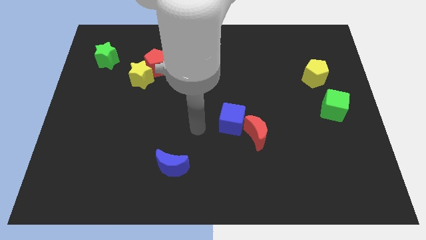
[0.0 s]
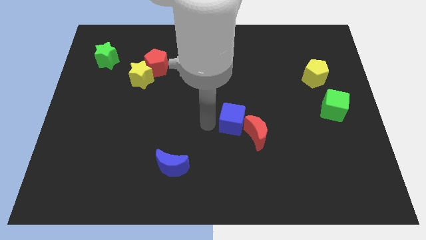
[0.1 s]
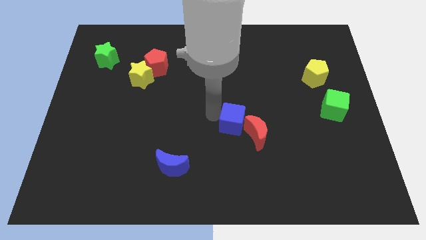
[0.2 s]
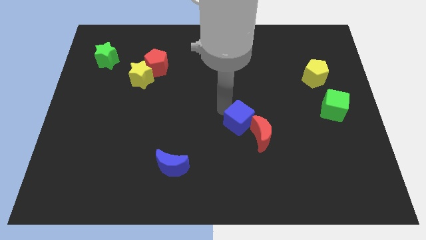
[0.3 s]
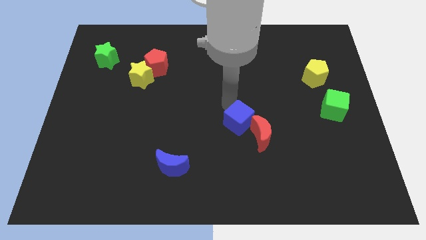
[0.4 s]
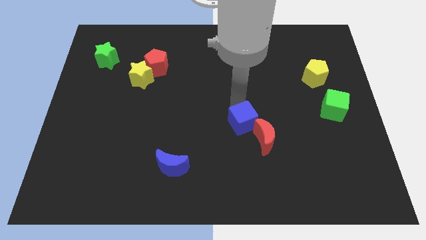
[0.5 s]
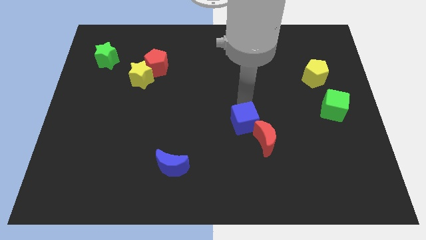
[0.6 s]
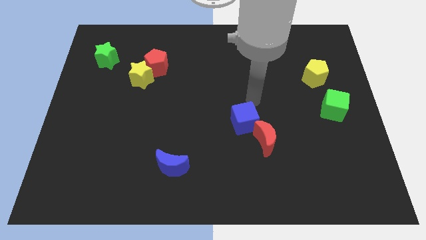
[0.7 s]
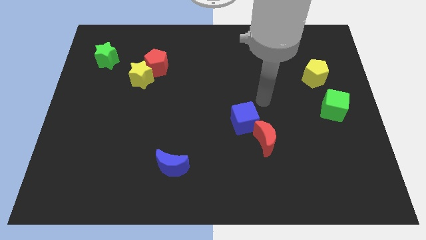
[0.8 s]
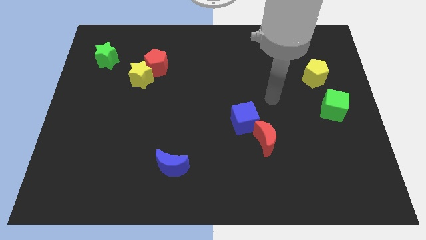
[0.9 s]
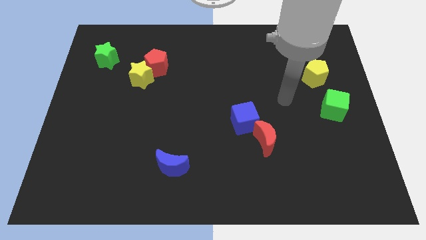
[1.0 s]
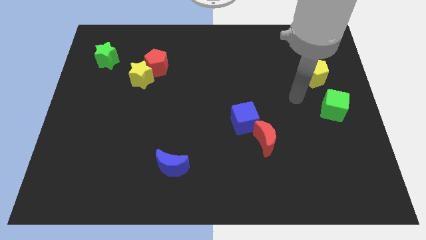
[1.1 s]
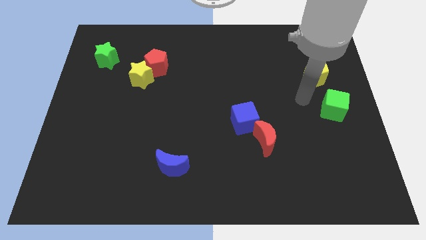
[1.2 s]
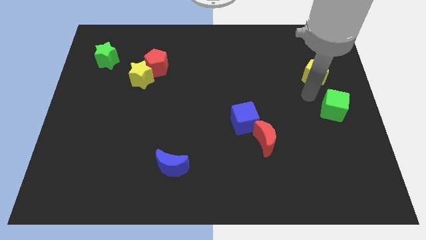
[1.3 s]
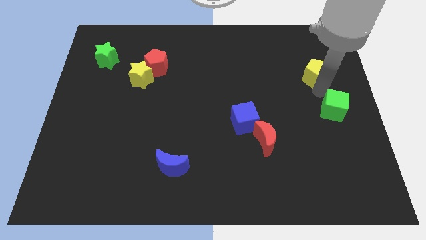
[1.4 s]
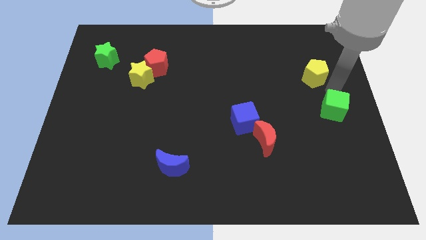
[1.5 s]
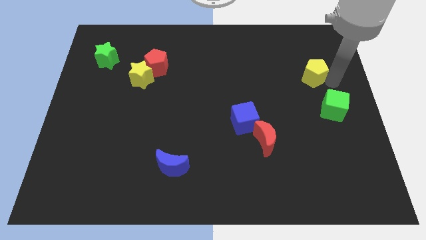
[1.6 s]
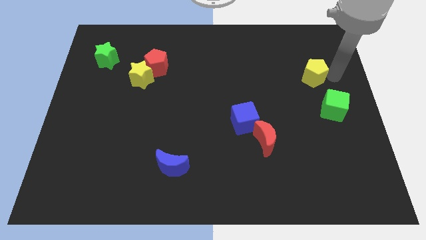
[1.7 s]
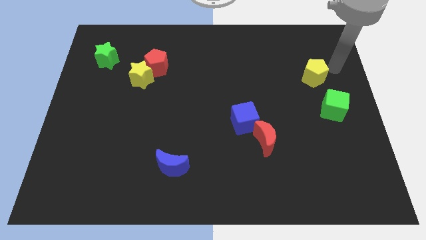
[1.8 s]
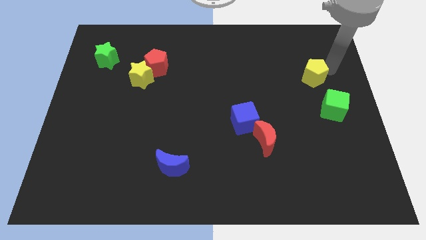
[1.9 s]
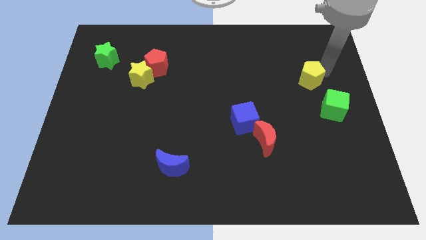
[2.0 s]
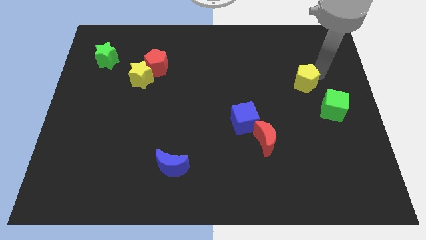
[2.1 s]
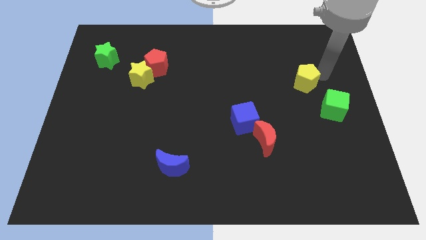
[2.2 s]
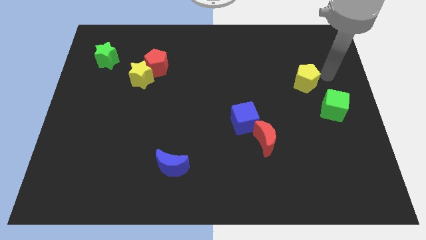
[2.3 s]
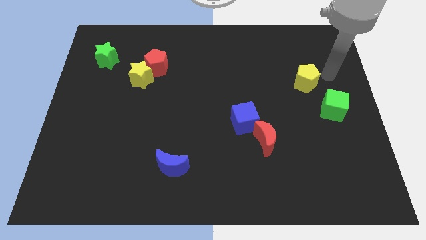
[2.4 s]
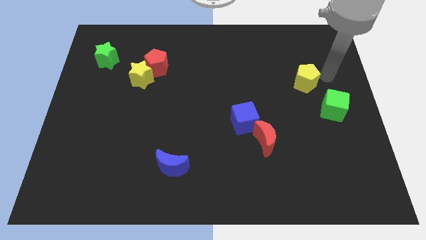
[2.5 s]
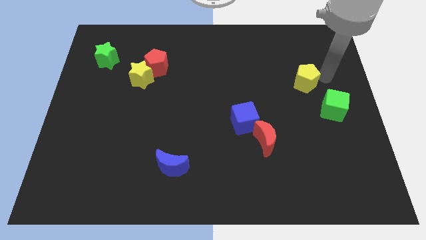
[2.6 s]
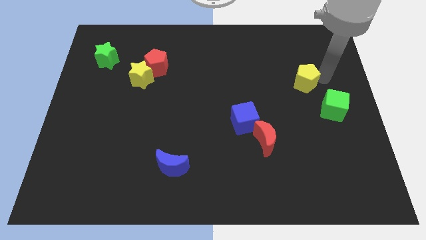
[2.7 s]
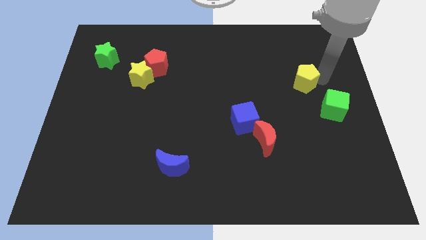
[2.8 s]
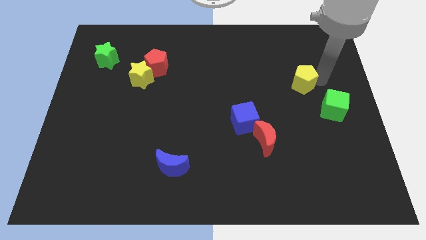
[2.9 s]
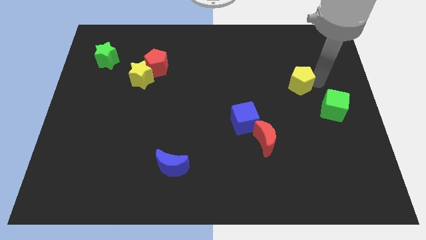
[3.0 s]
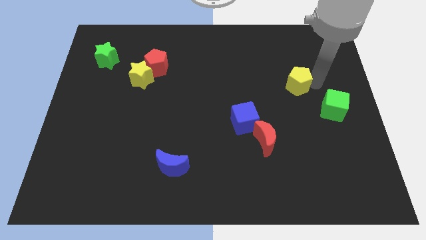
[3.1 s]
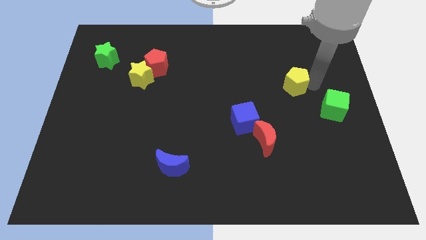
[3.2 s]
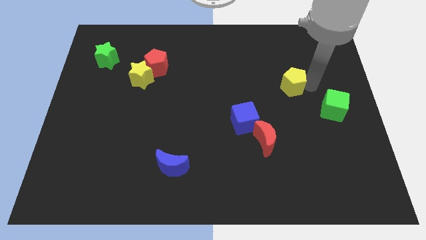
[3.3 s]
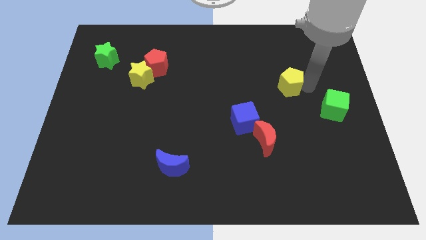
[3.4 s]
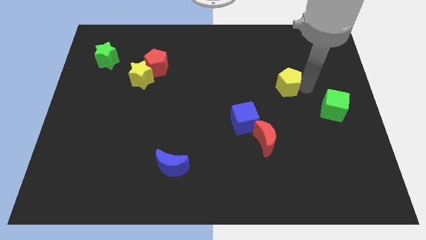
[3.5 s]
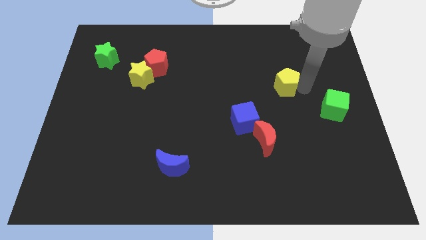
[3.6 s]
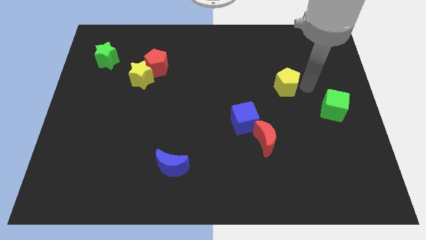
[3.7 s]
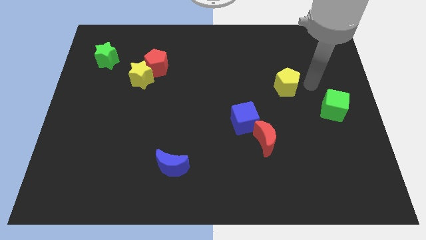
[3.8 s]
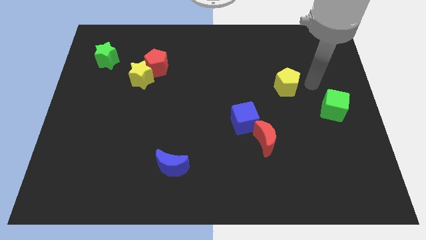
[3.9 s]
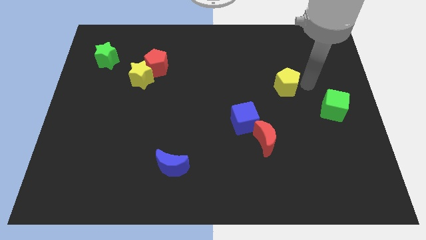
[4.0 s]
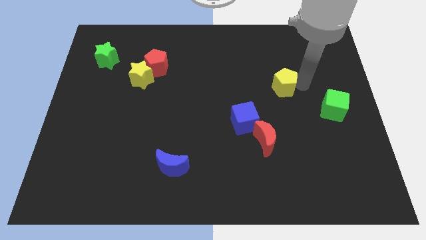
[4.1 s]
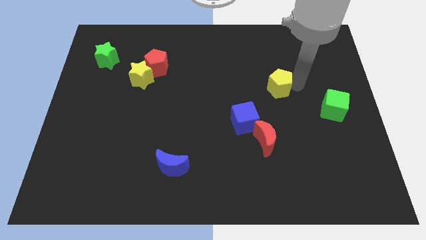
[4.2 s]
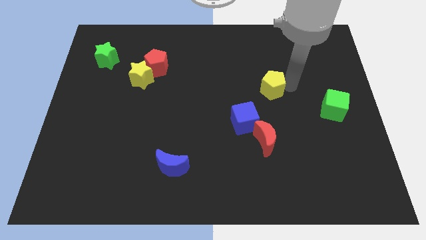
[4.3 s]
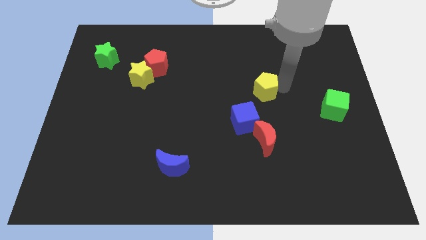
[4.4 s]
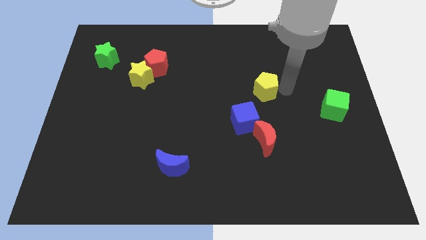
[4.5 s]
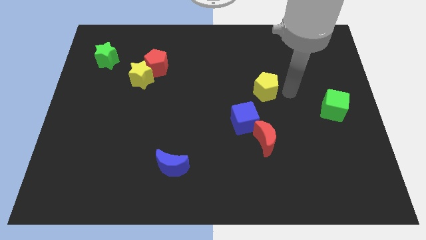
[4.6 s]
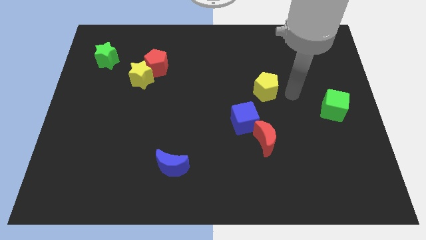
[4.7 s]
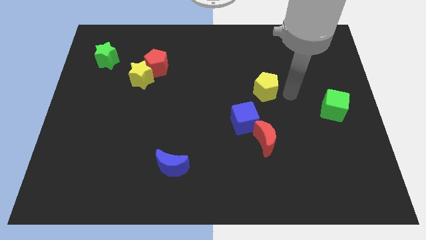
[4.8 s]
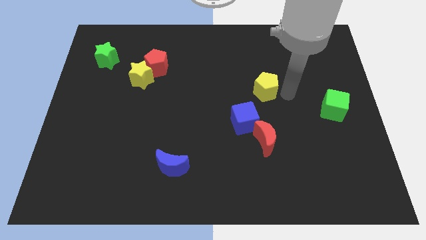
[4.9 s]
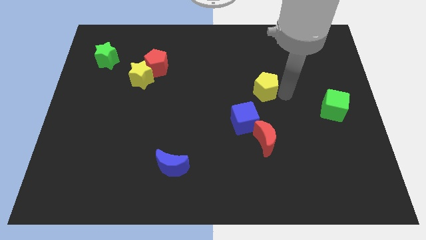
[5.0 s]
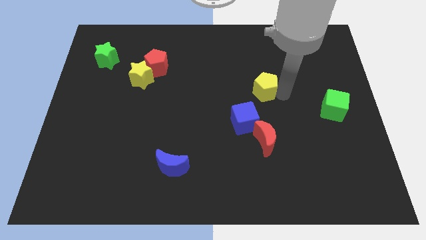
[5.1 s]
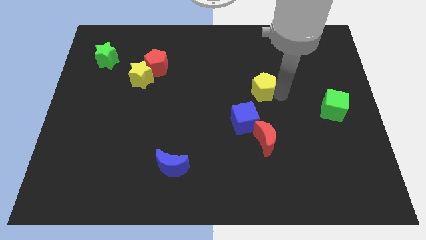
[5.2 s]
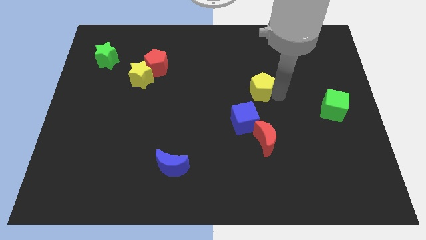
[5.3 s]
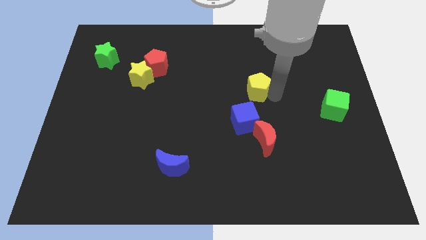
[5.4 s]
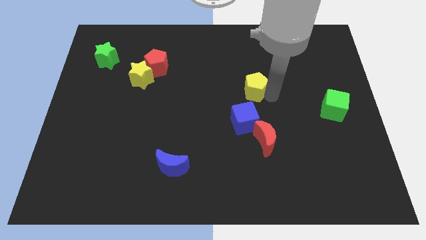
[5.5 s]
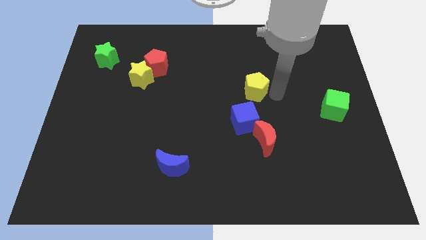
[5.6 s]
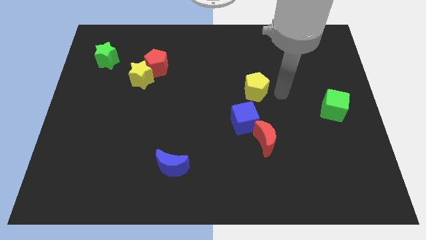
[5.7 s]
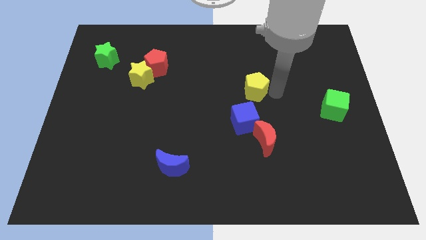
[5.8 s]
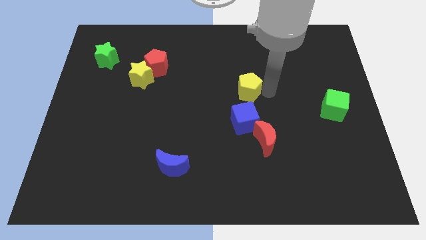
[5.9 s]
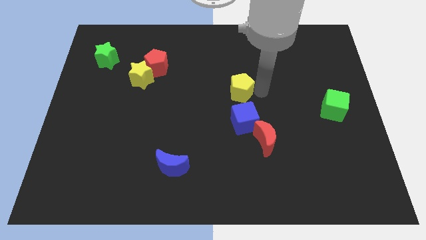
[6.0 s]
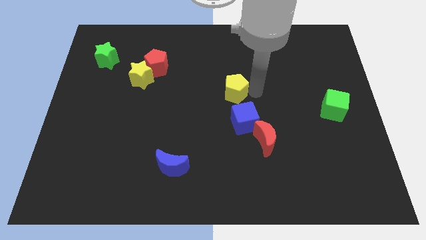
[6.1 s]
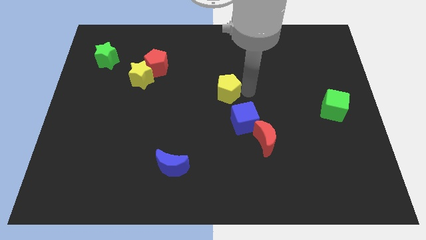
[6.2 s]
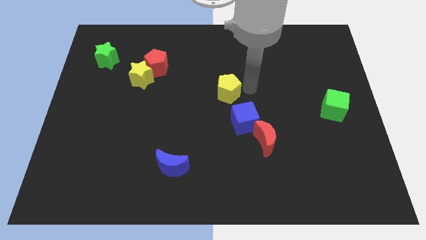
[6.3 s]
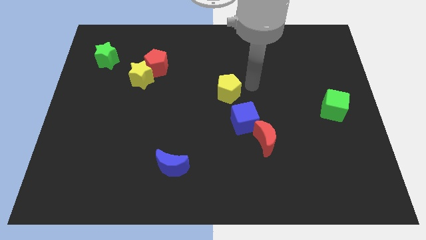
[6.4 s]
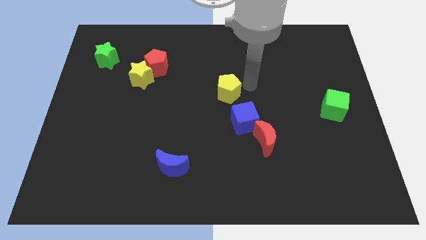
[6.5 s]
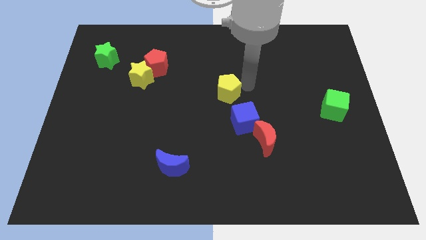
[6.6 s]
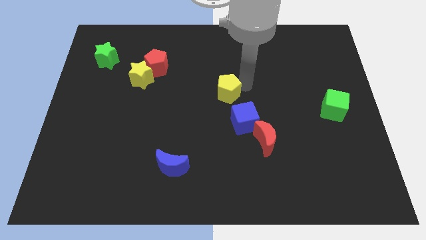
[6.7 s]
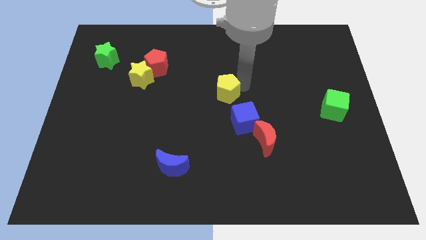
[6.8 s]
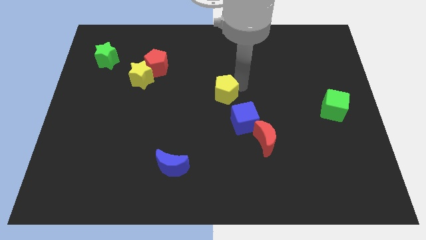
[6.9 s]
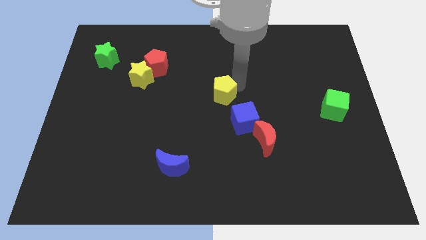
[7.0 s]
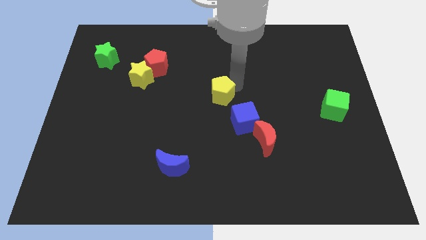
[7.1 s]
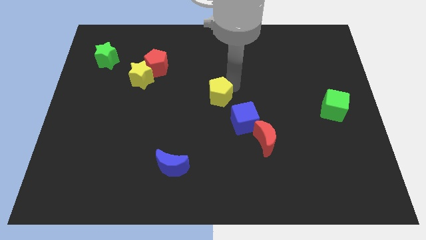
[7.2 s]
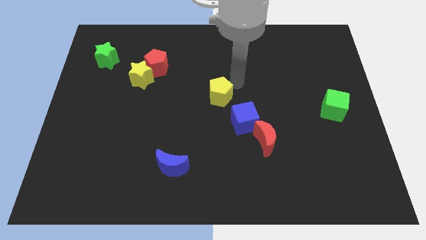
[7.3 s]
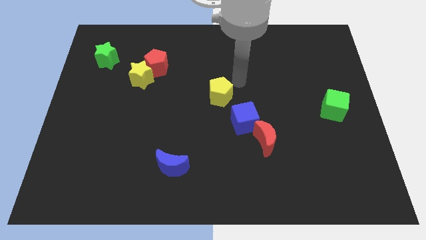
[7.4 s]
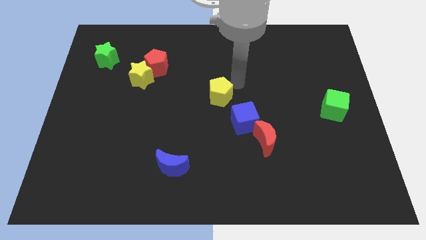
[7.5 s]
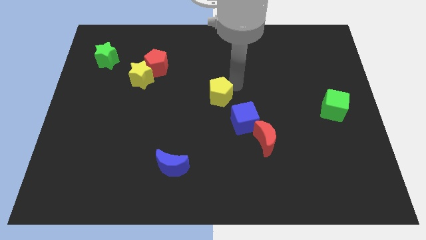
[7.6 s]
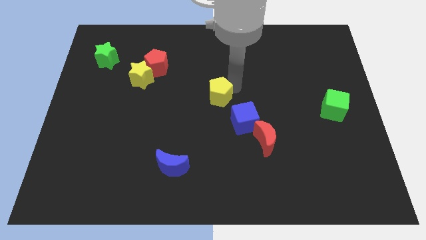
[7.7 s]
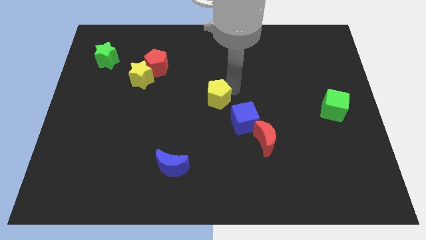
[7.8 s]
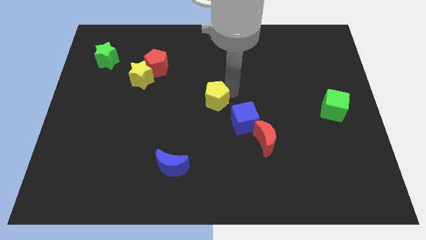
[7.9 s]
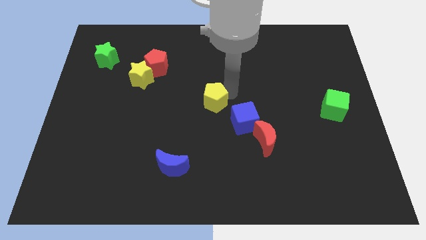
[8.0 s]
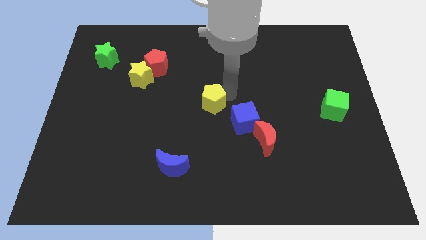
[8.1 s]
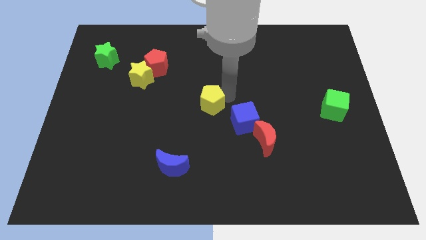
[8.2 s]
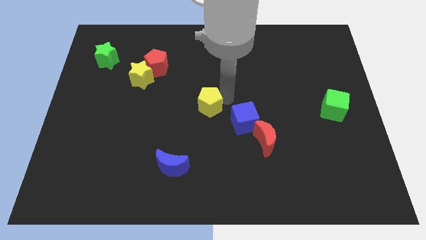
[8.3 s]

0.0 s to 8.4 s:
push the yellow pentagon just left of the blue cube
